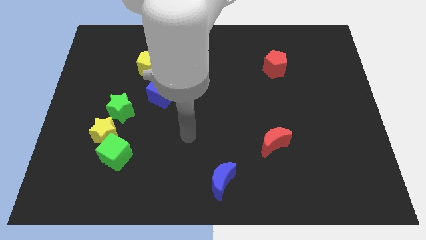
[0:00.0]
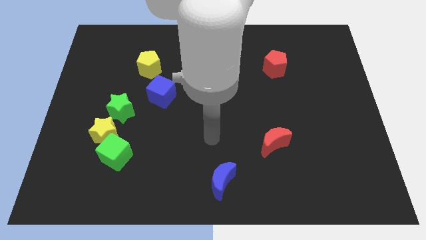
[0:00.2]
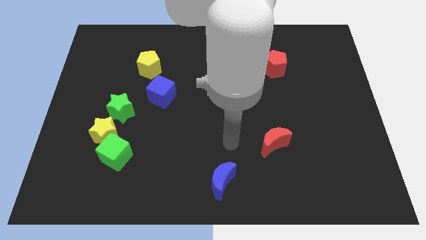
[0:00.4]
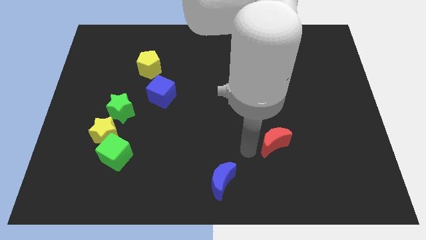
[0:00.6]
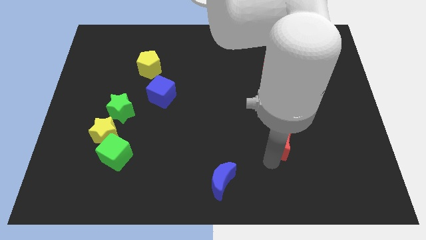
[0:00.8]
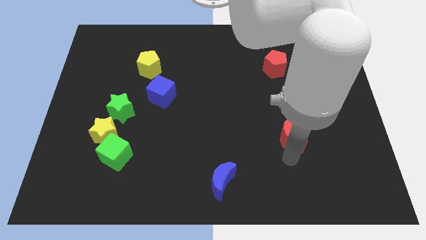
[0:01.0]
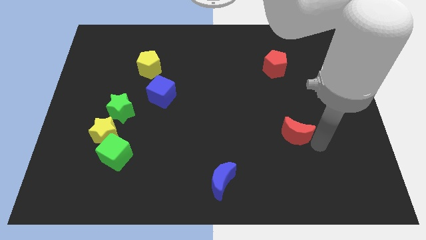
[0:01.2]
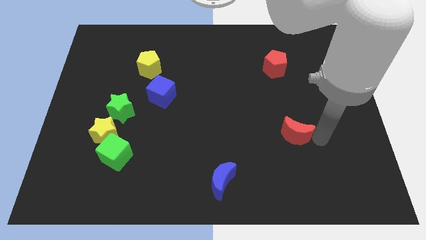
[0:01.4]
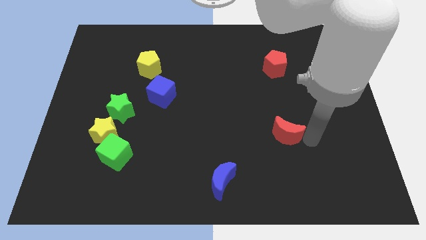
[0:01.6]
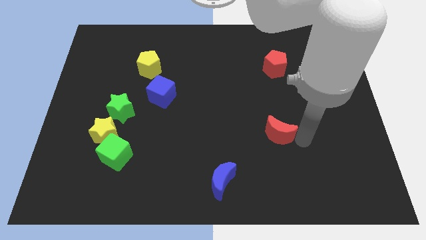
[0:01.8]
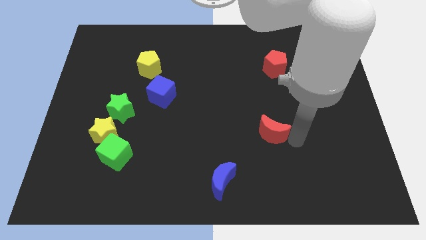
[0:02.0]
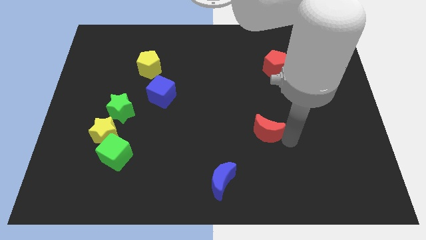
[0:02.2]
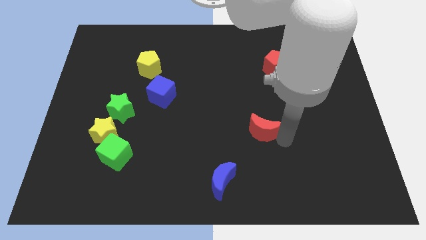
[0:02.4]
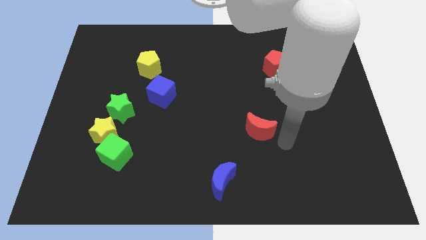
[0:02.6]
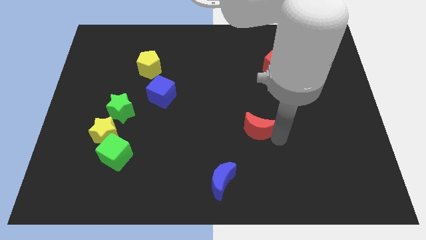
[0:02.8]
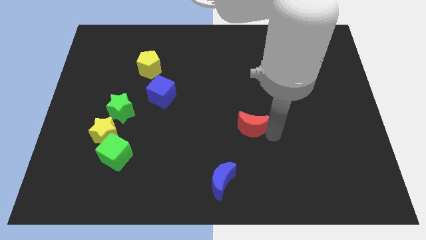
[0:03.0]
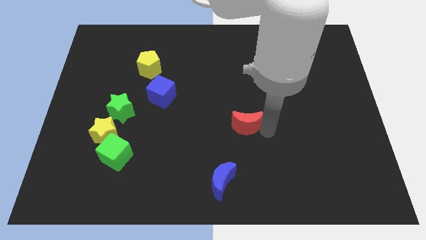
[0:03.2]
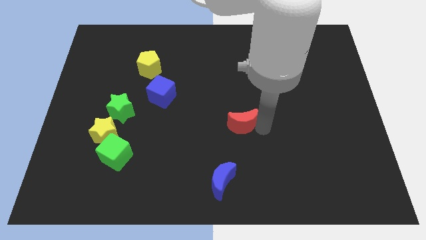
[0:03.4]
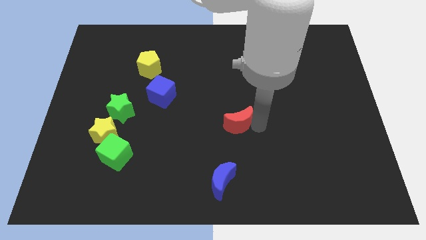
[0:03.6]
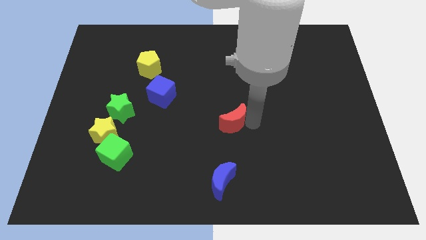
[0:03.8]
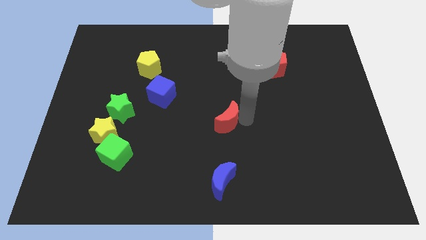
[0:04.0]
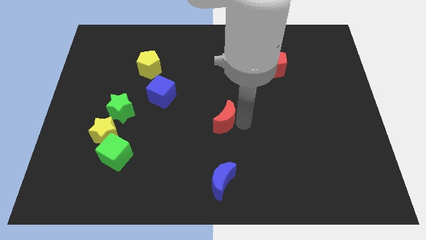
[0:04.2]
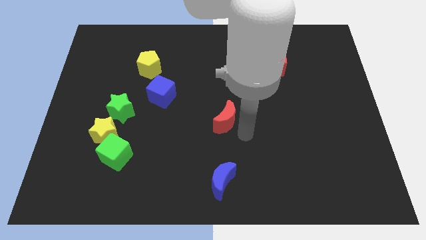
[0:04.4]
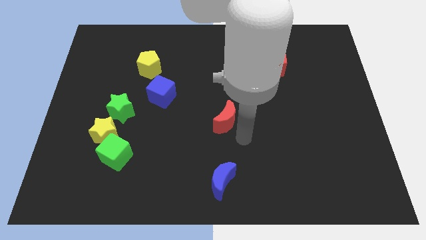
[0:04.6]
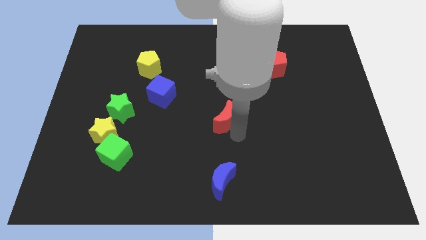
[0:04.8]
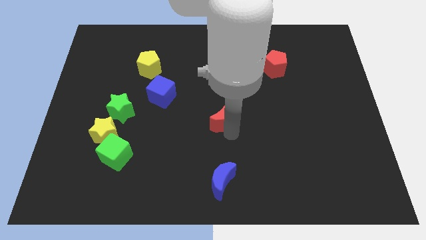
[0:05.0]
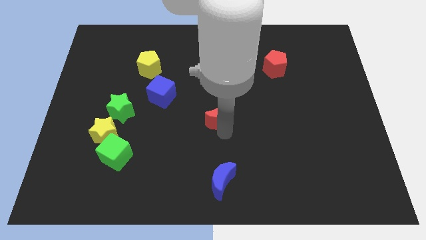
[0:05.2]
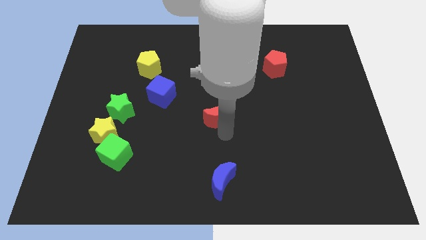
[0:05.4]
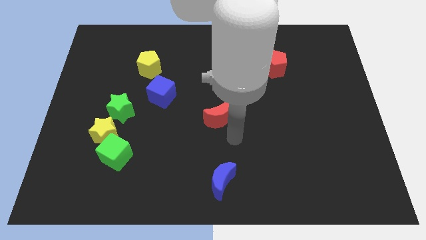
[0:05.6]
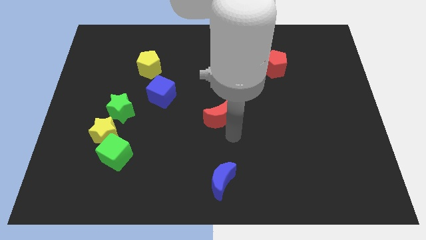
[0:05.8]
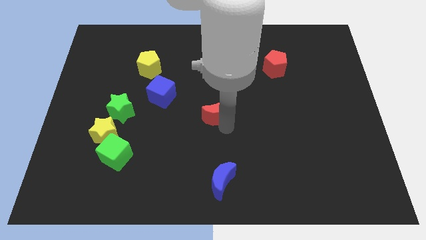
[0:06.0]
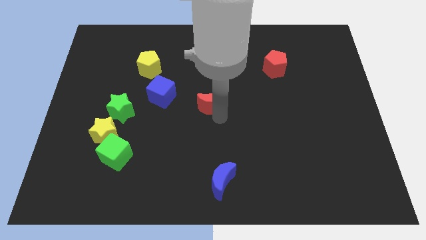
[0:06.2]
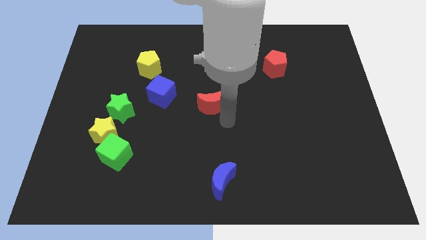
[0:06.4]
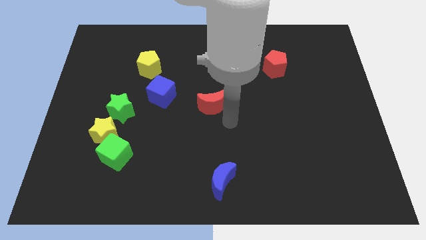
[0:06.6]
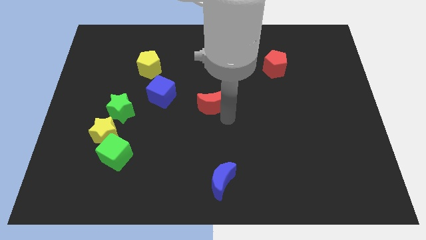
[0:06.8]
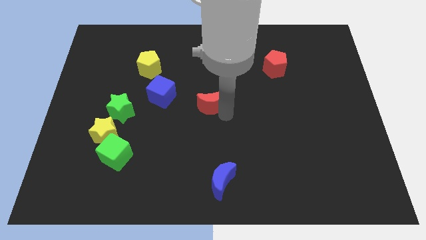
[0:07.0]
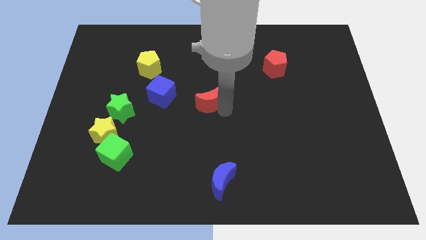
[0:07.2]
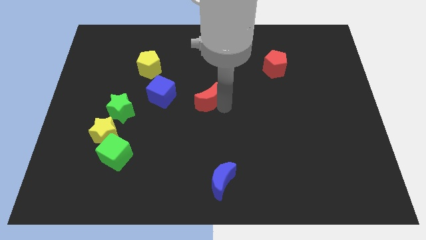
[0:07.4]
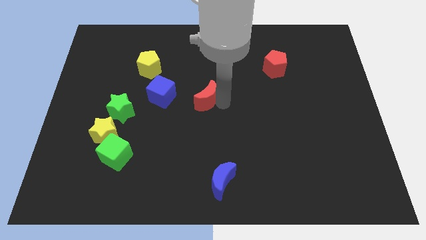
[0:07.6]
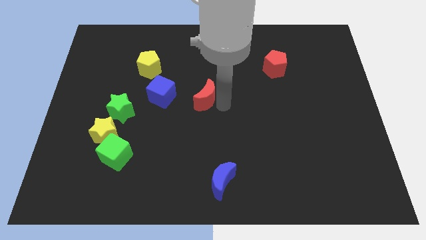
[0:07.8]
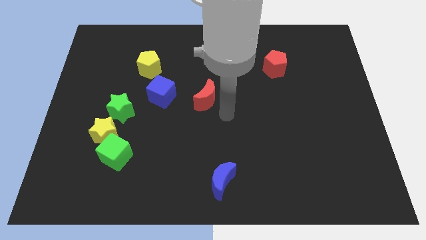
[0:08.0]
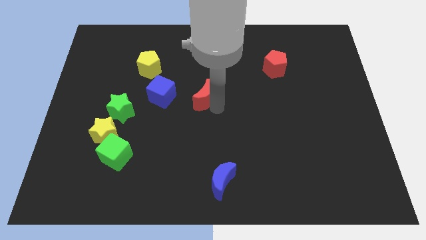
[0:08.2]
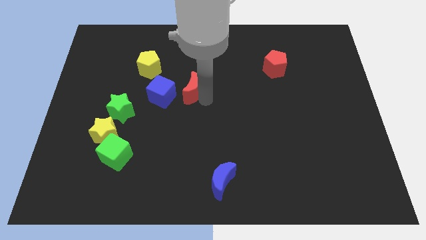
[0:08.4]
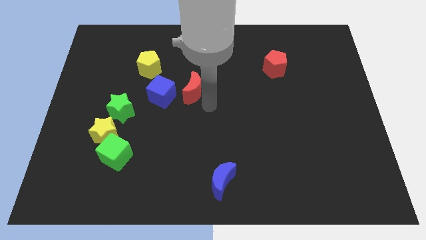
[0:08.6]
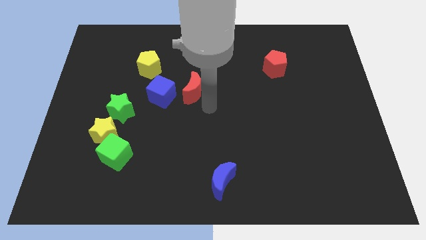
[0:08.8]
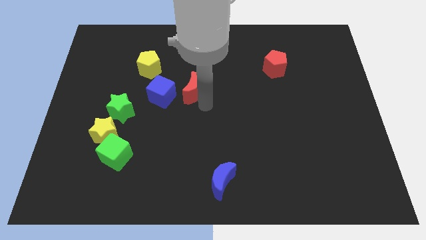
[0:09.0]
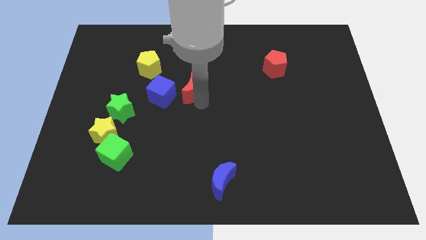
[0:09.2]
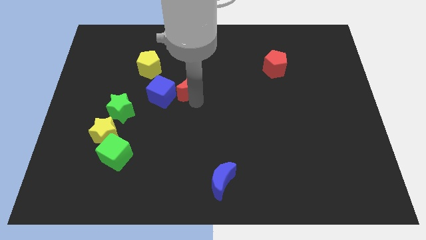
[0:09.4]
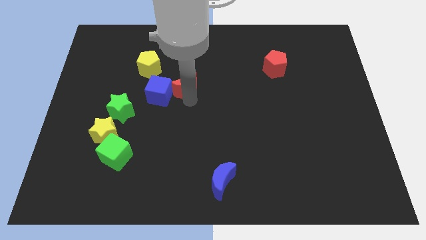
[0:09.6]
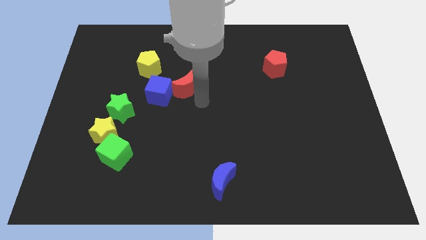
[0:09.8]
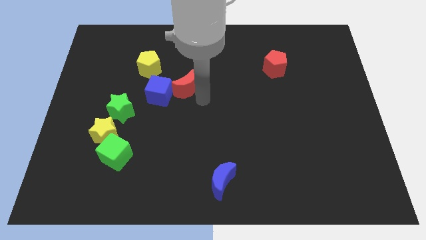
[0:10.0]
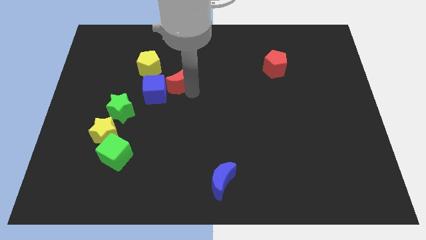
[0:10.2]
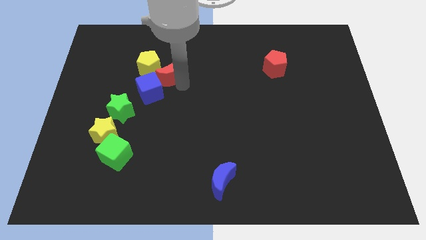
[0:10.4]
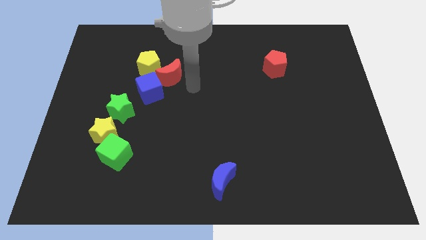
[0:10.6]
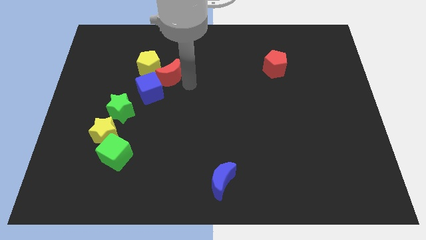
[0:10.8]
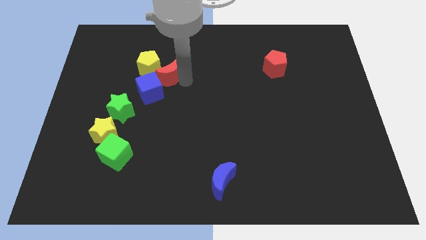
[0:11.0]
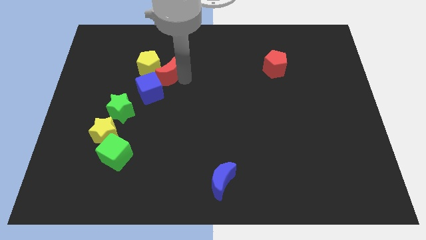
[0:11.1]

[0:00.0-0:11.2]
push the red moon to the yellow pentagon

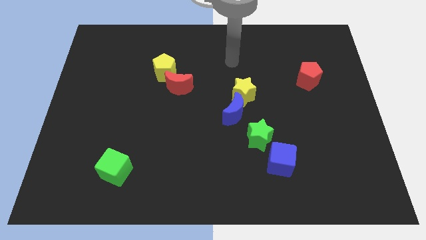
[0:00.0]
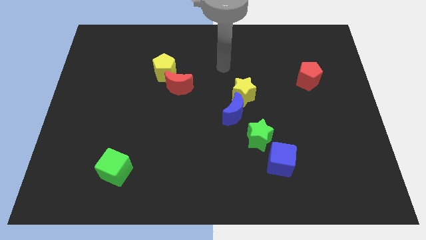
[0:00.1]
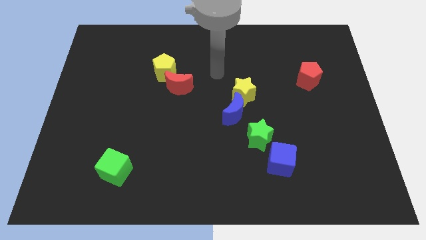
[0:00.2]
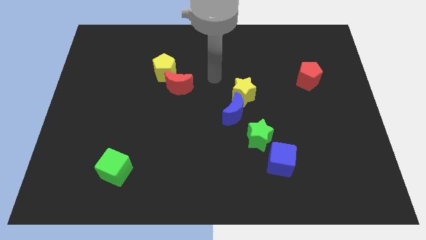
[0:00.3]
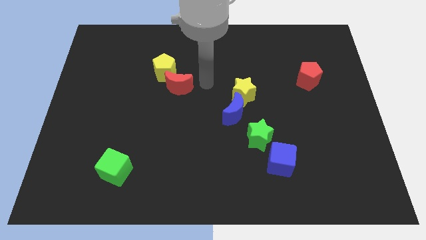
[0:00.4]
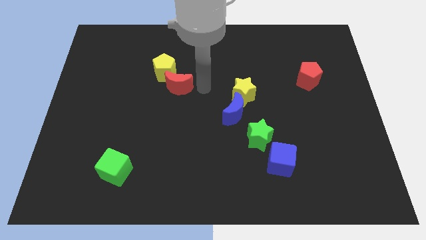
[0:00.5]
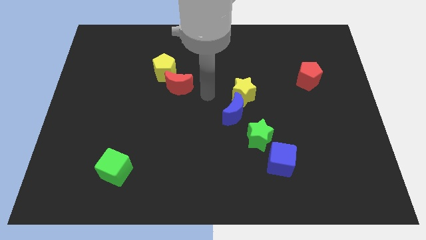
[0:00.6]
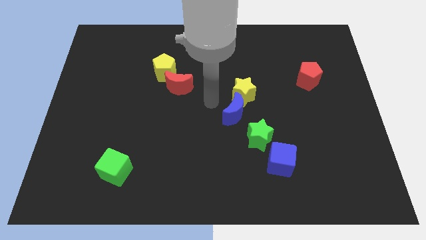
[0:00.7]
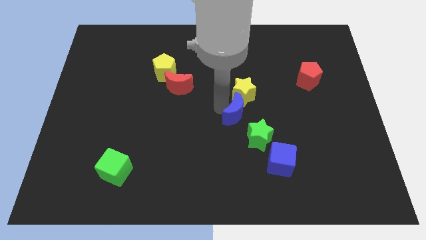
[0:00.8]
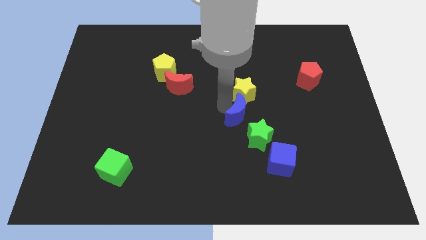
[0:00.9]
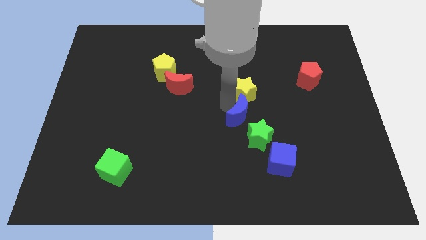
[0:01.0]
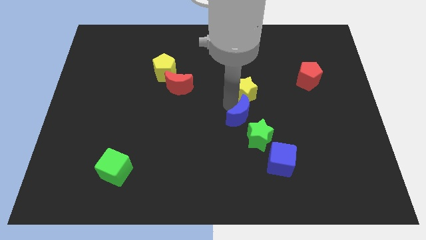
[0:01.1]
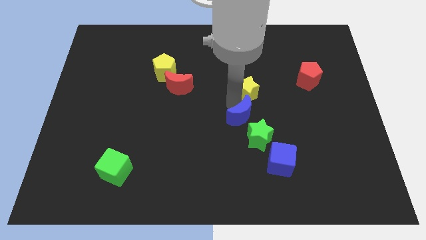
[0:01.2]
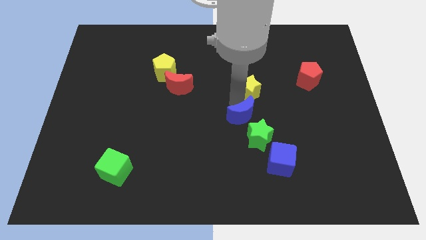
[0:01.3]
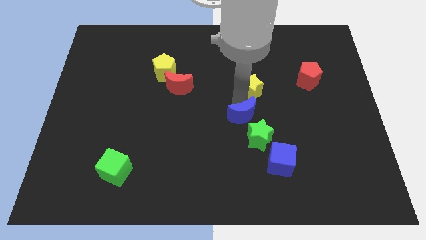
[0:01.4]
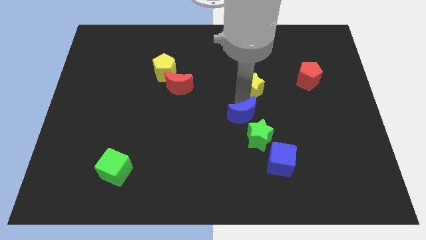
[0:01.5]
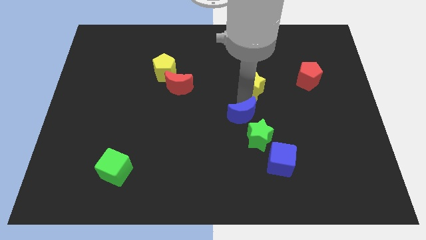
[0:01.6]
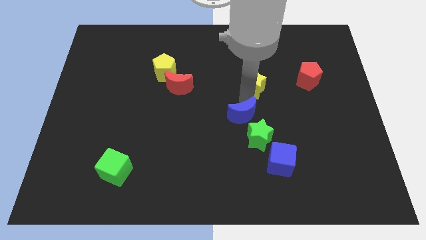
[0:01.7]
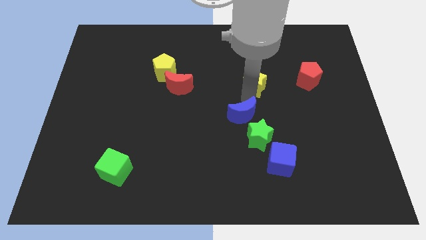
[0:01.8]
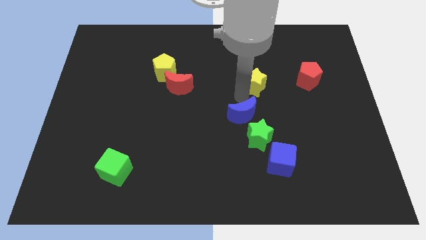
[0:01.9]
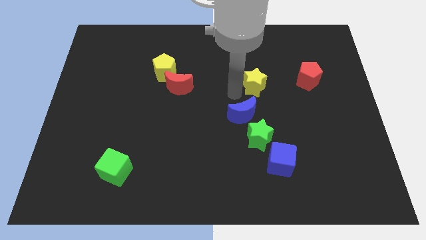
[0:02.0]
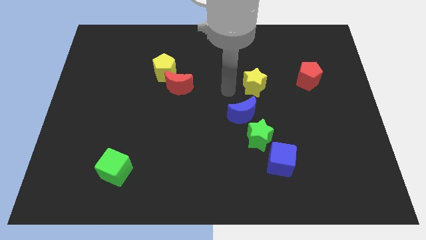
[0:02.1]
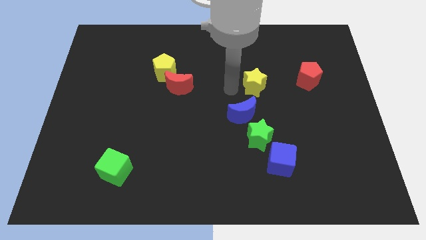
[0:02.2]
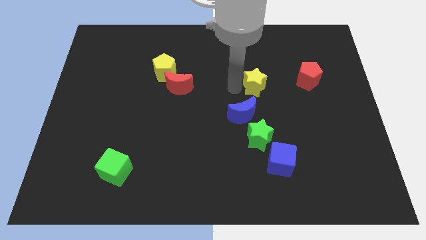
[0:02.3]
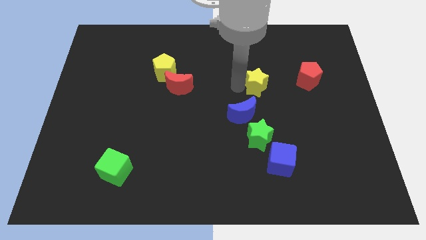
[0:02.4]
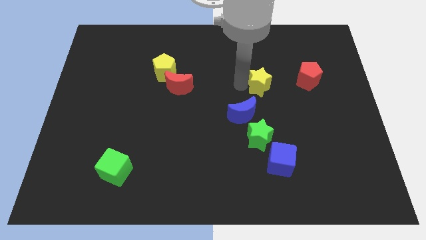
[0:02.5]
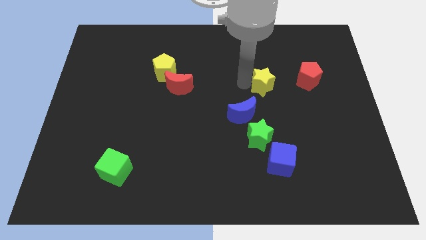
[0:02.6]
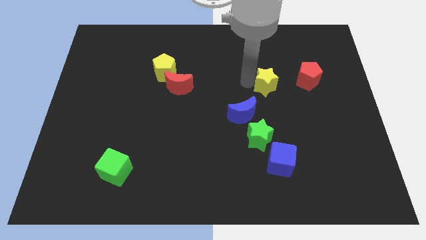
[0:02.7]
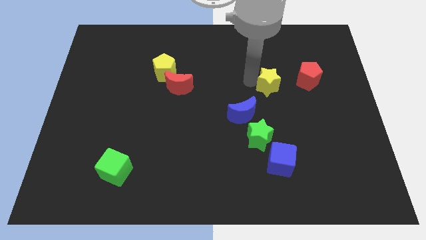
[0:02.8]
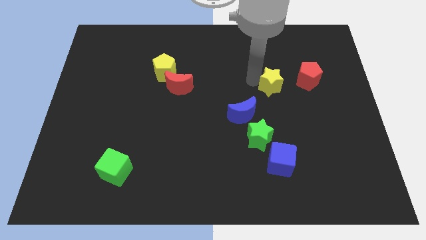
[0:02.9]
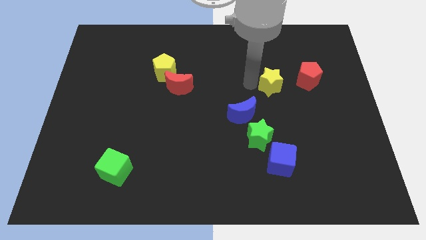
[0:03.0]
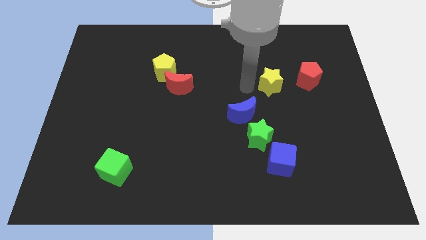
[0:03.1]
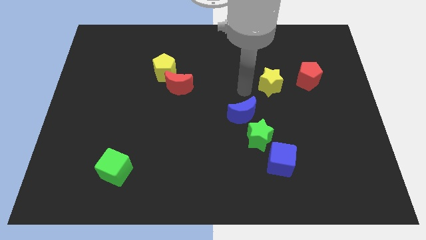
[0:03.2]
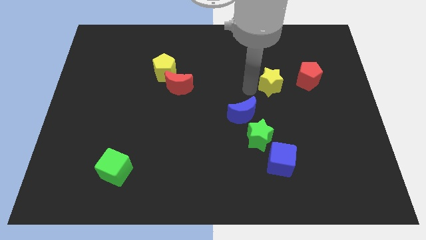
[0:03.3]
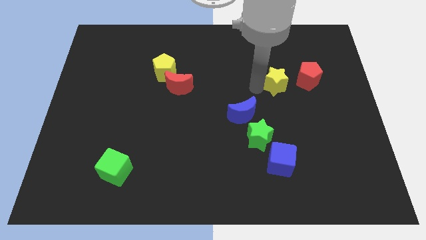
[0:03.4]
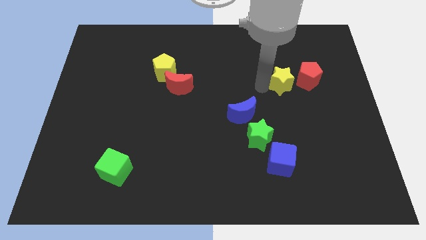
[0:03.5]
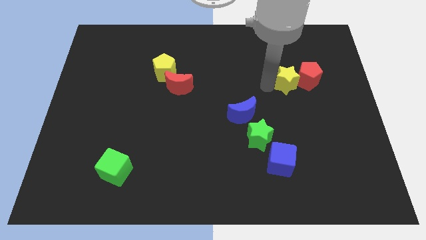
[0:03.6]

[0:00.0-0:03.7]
put the yellow star close to the red pentagon
